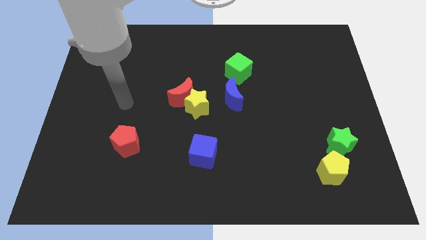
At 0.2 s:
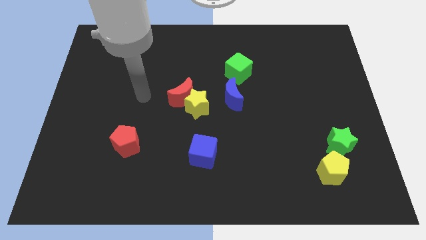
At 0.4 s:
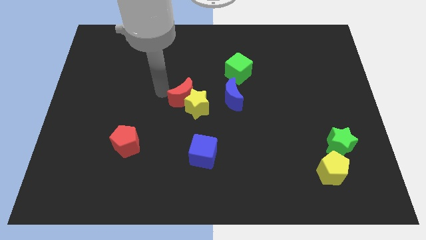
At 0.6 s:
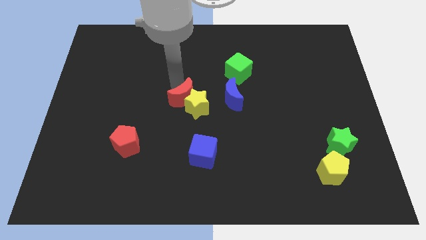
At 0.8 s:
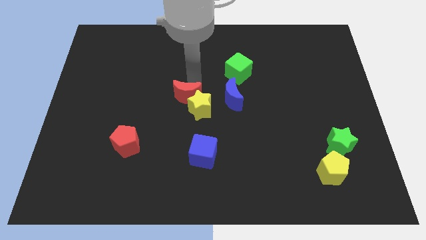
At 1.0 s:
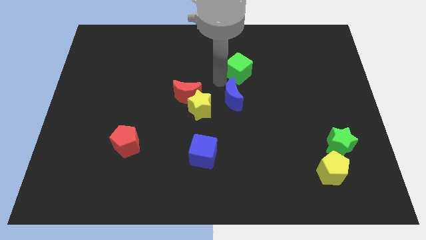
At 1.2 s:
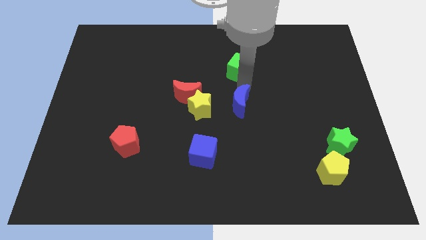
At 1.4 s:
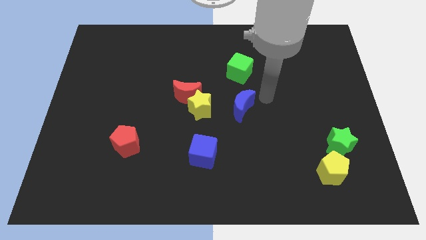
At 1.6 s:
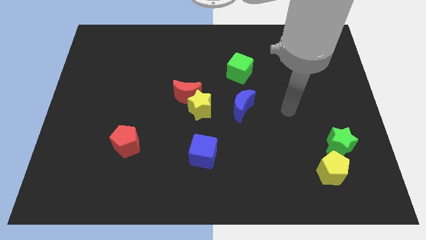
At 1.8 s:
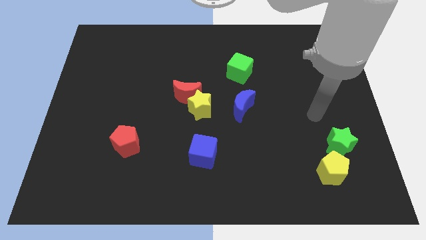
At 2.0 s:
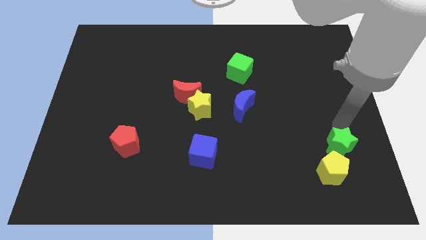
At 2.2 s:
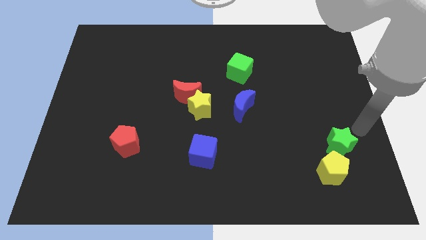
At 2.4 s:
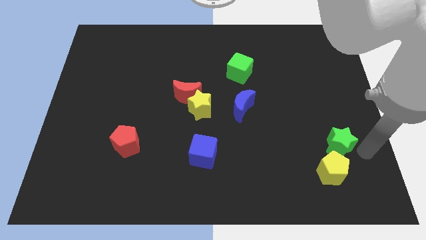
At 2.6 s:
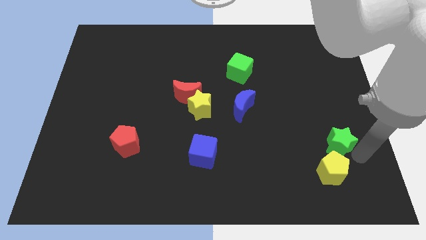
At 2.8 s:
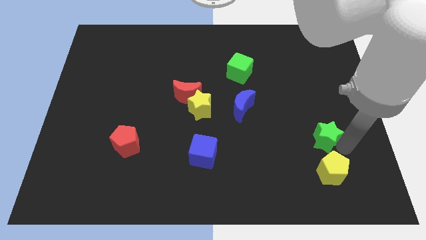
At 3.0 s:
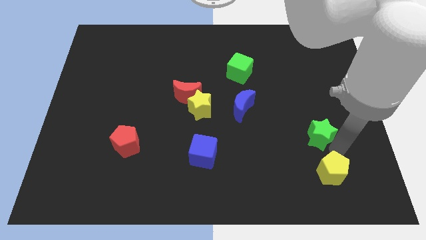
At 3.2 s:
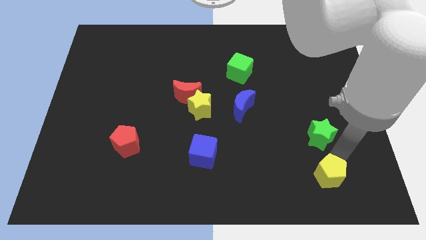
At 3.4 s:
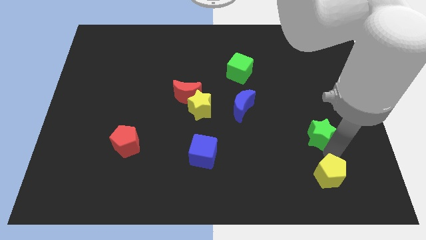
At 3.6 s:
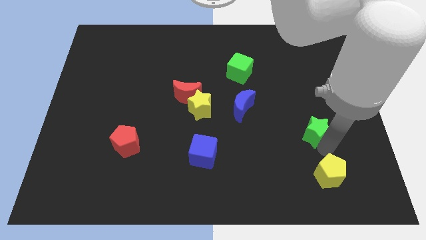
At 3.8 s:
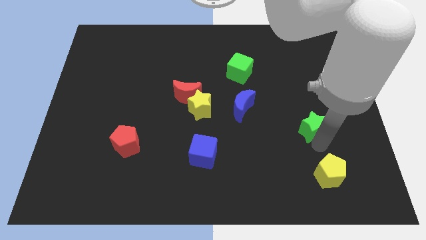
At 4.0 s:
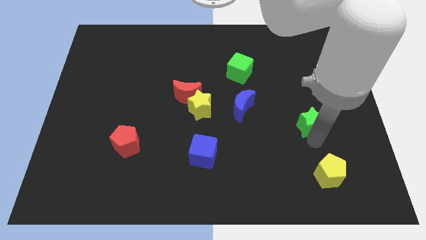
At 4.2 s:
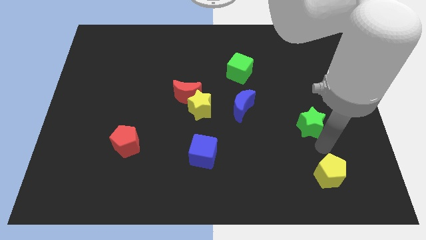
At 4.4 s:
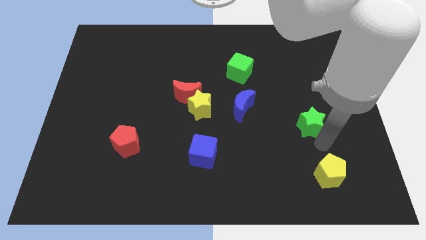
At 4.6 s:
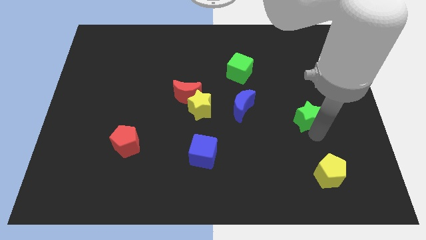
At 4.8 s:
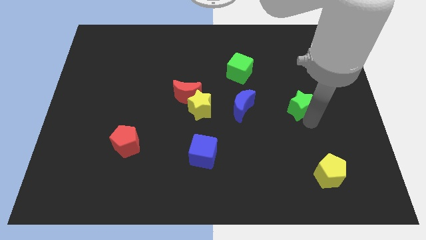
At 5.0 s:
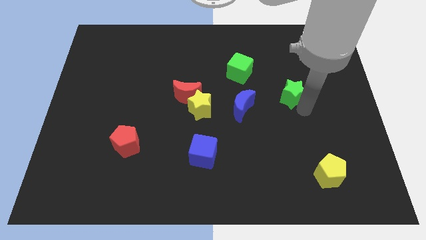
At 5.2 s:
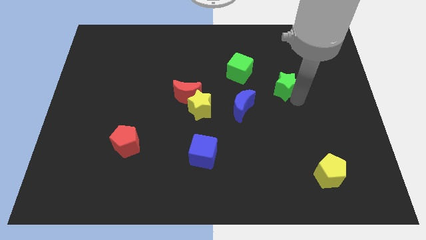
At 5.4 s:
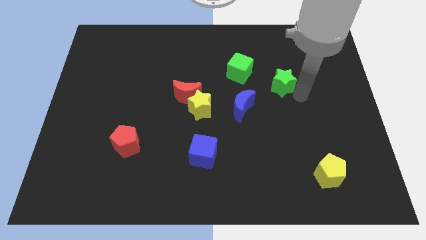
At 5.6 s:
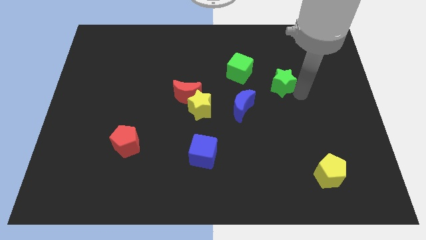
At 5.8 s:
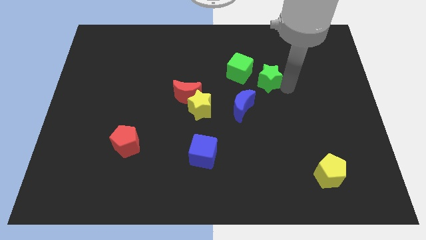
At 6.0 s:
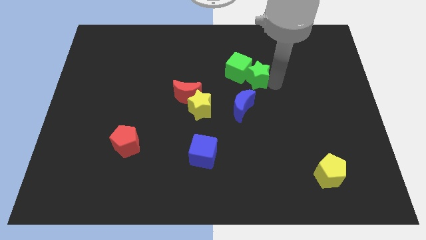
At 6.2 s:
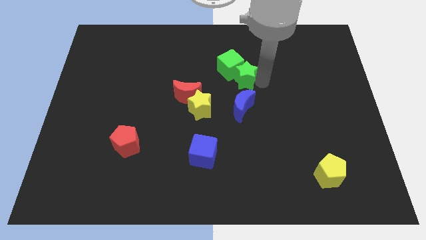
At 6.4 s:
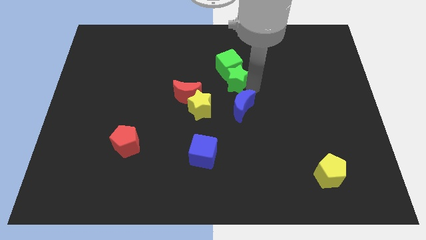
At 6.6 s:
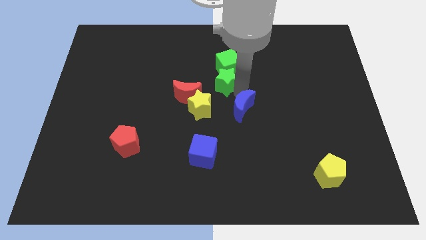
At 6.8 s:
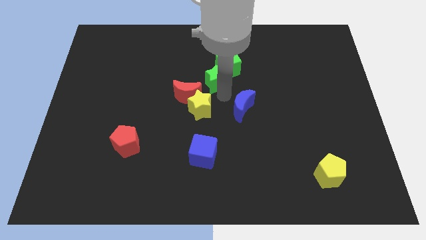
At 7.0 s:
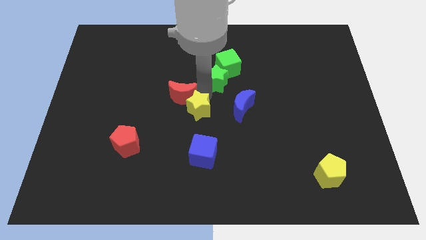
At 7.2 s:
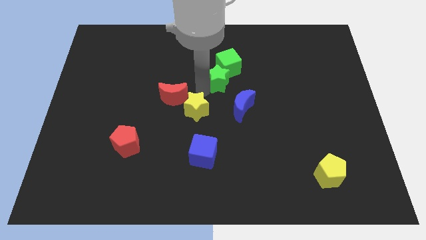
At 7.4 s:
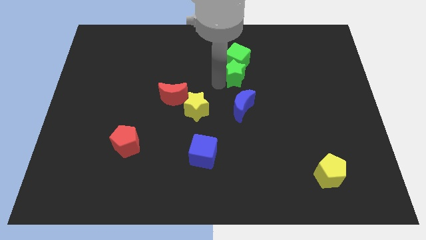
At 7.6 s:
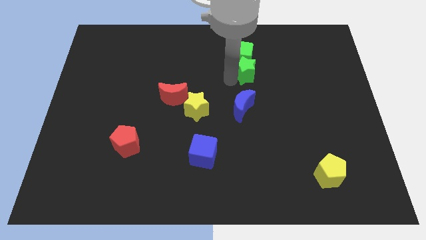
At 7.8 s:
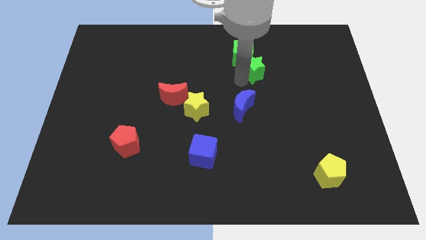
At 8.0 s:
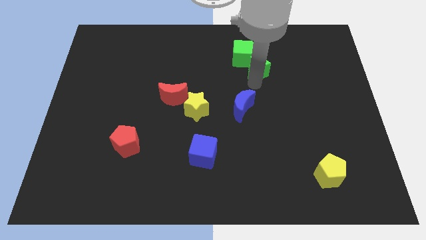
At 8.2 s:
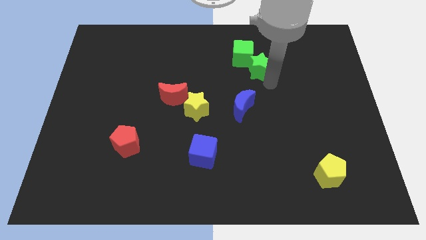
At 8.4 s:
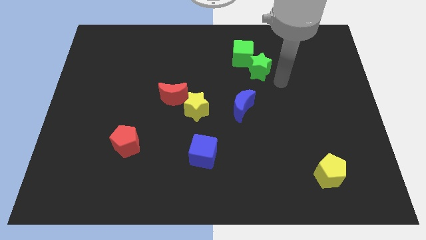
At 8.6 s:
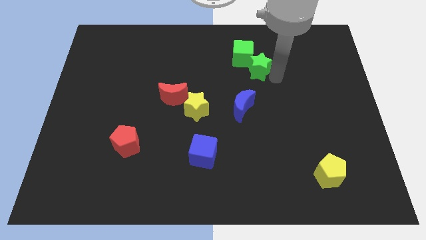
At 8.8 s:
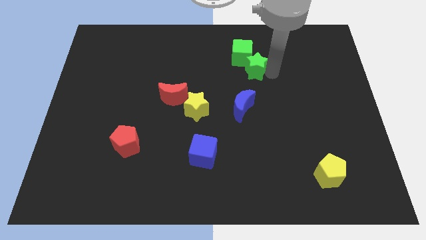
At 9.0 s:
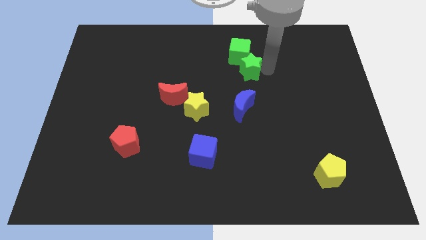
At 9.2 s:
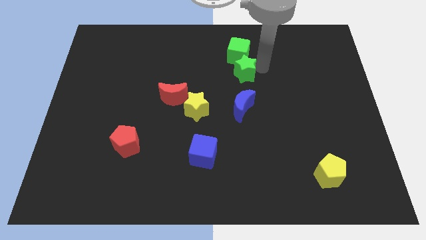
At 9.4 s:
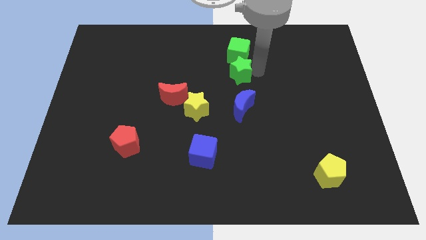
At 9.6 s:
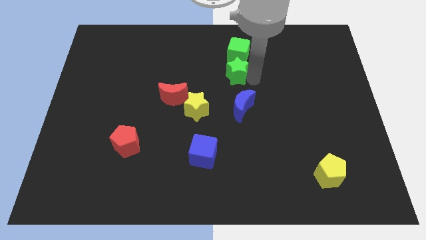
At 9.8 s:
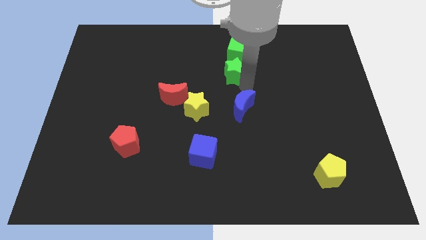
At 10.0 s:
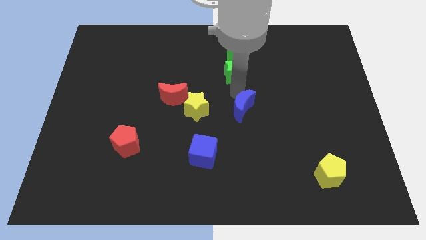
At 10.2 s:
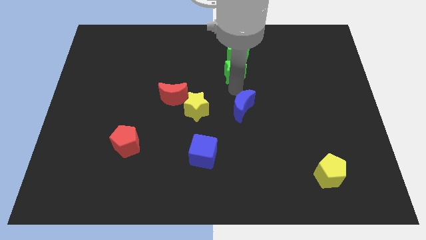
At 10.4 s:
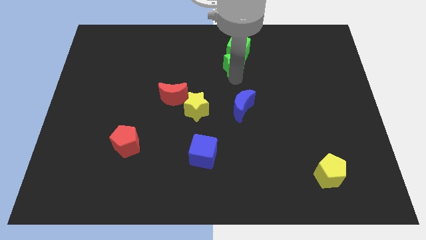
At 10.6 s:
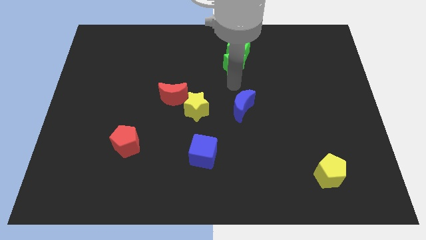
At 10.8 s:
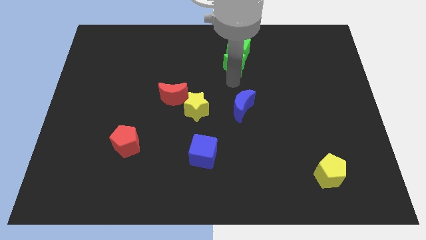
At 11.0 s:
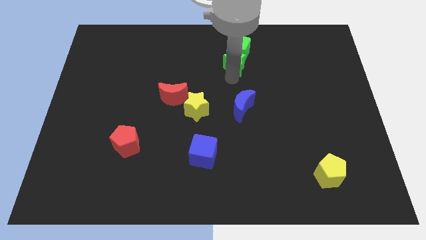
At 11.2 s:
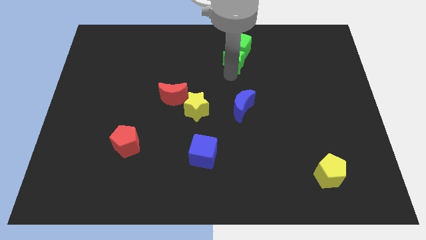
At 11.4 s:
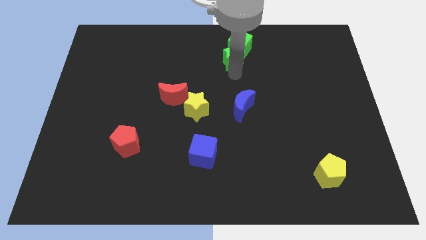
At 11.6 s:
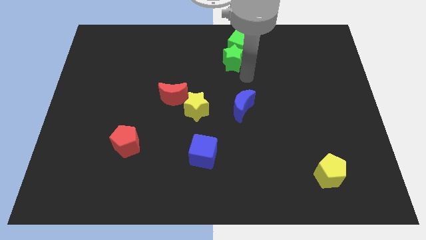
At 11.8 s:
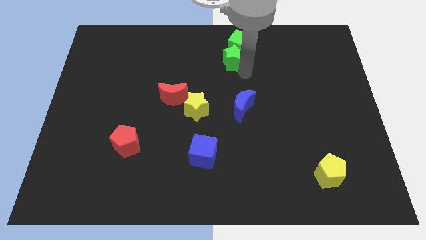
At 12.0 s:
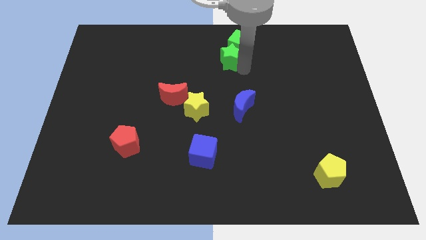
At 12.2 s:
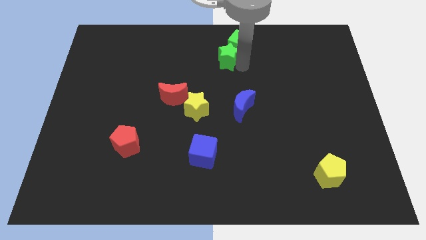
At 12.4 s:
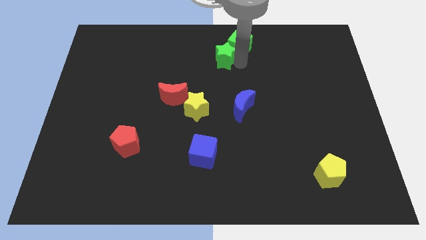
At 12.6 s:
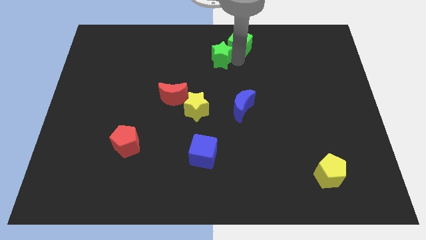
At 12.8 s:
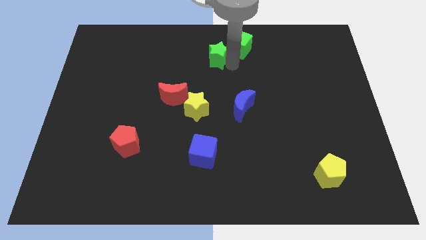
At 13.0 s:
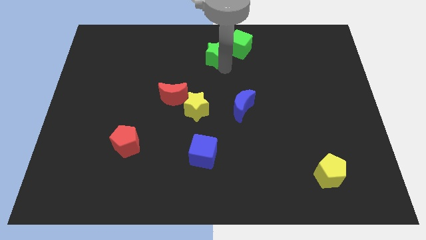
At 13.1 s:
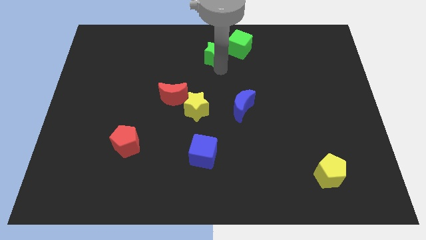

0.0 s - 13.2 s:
move the green star to the top side

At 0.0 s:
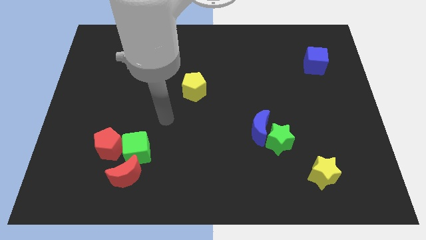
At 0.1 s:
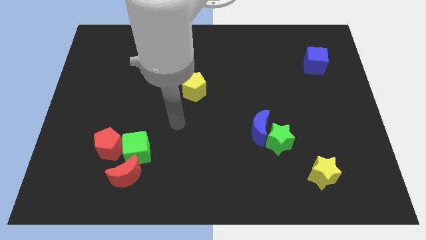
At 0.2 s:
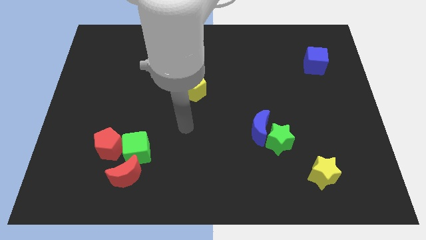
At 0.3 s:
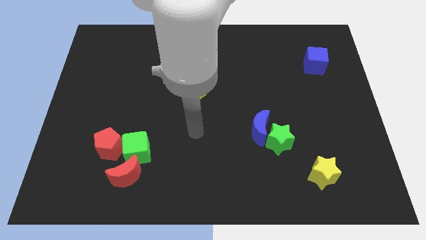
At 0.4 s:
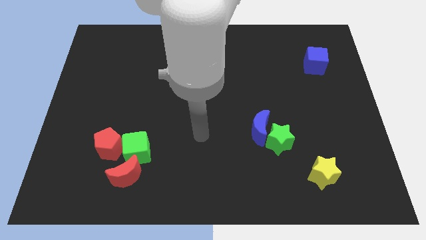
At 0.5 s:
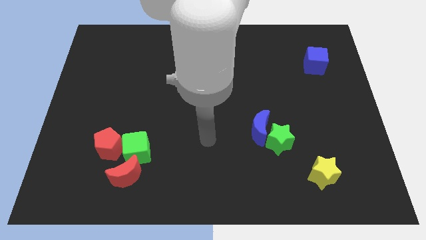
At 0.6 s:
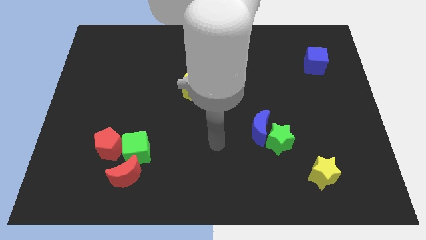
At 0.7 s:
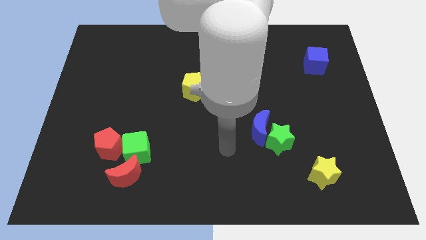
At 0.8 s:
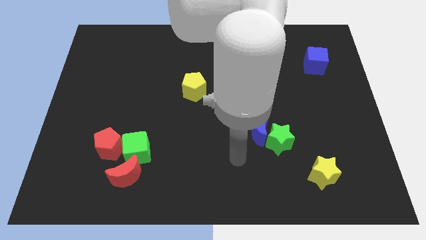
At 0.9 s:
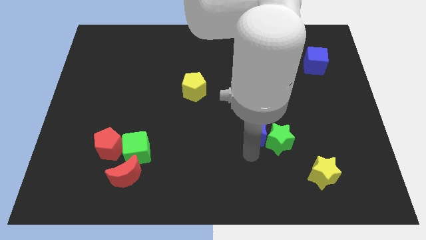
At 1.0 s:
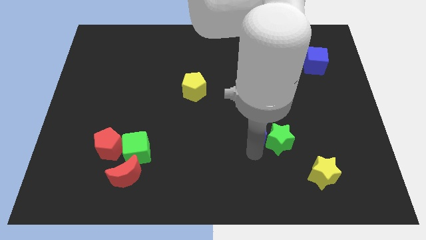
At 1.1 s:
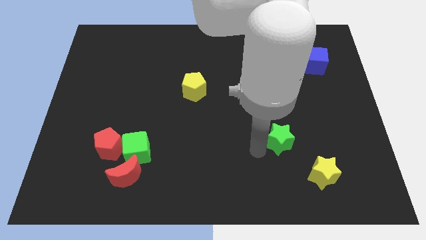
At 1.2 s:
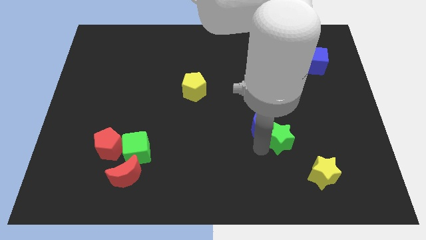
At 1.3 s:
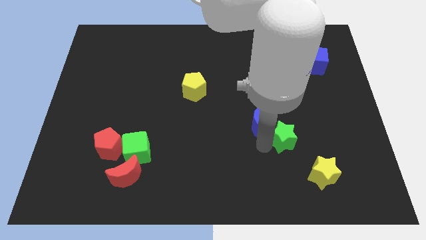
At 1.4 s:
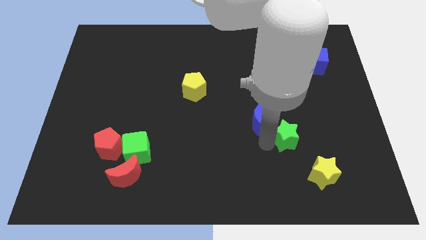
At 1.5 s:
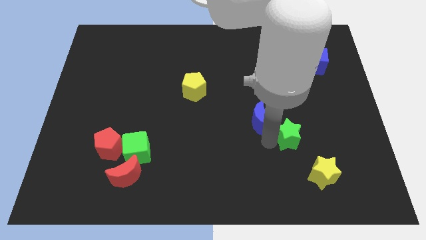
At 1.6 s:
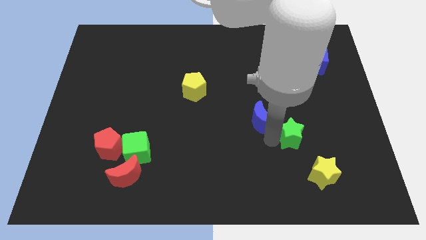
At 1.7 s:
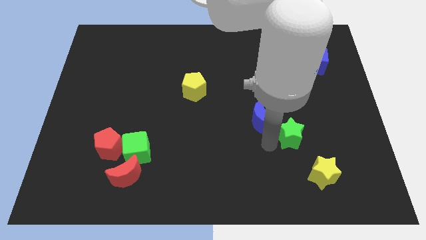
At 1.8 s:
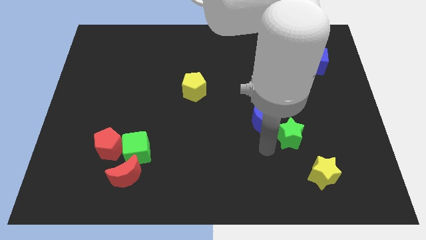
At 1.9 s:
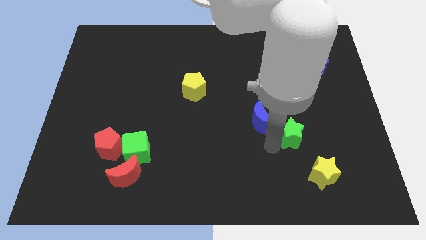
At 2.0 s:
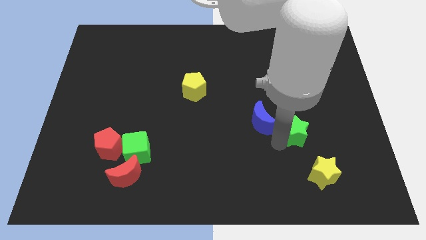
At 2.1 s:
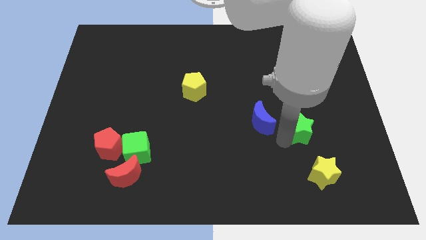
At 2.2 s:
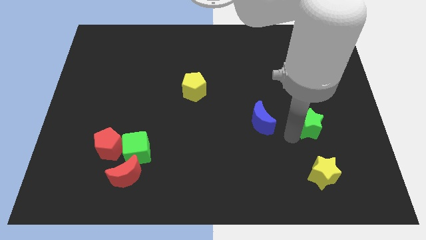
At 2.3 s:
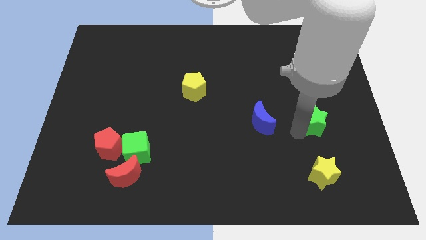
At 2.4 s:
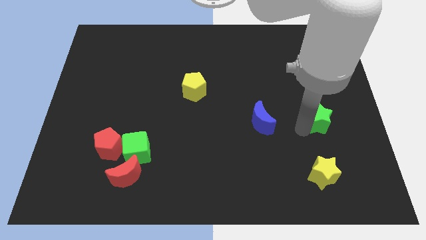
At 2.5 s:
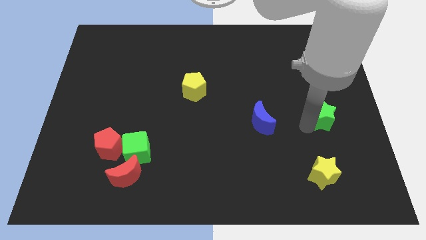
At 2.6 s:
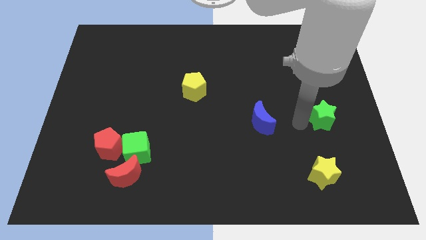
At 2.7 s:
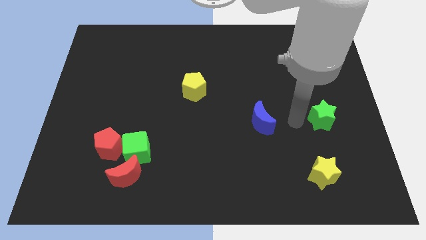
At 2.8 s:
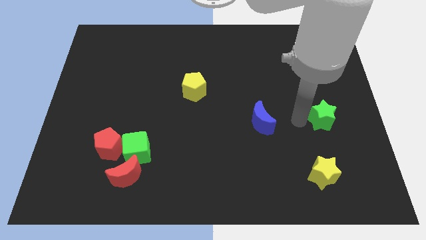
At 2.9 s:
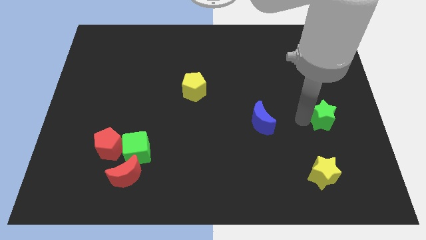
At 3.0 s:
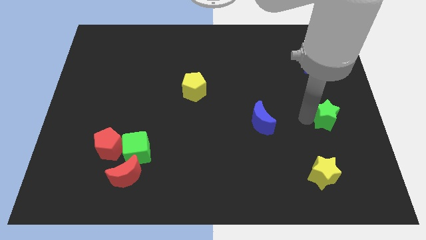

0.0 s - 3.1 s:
move the green star to the right side
